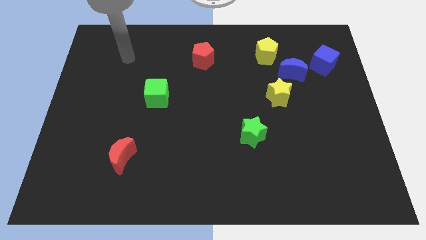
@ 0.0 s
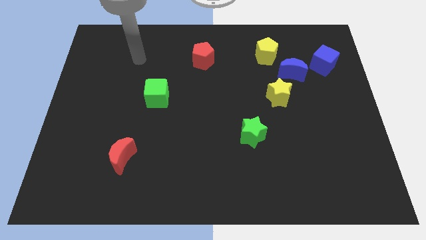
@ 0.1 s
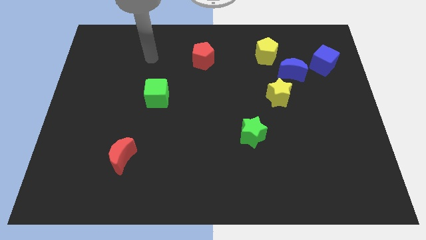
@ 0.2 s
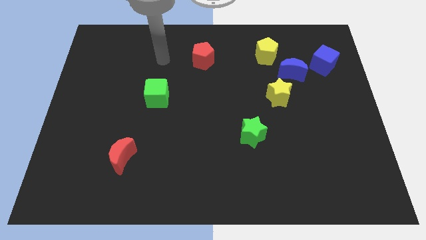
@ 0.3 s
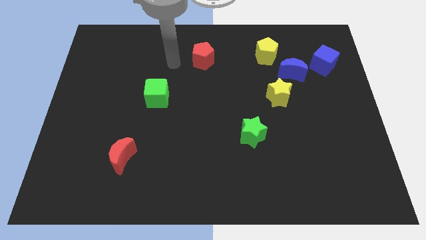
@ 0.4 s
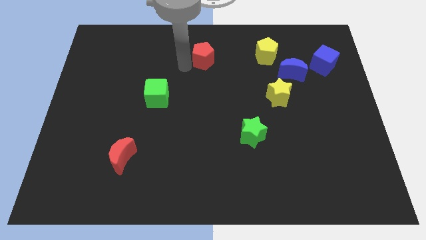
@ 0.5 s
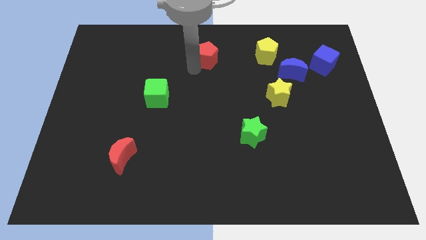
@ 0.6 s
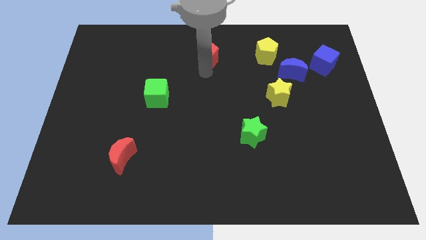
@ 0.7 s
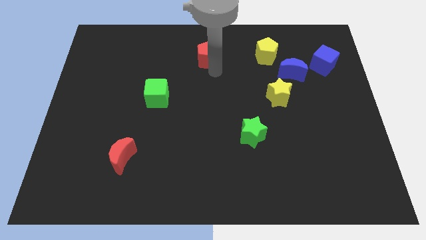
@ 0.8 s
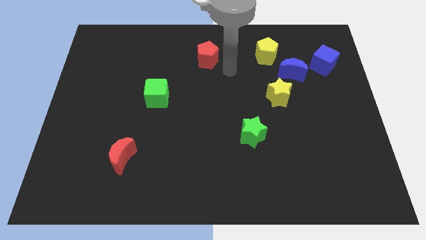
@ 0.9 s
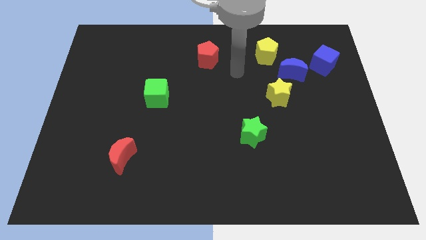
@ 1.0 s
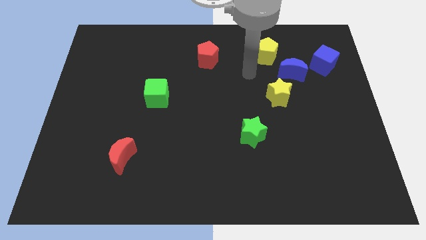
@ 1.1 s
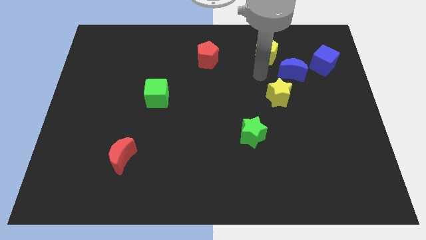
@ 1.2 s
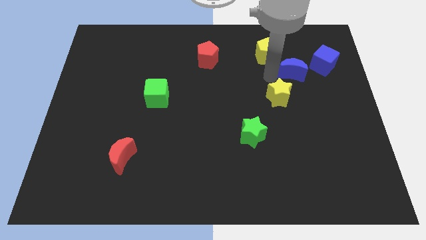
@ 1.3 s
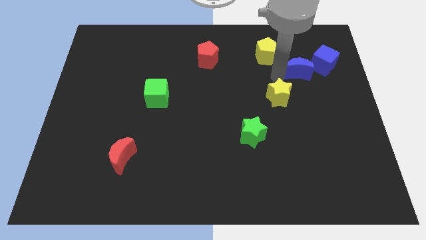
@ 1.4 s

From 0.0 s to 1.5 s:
move the yellow star away from the blue moon

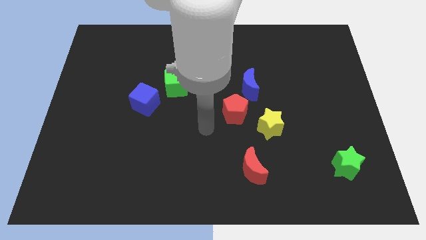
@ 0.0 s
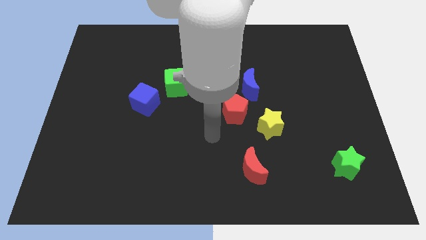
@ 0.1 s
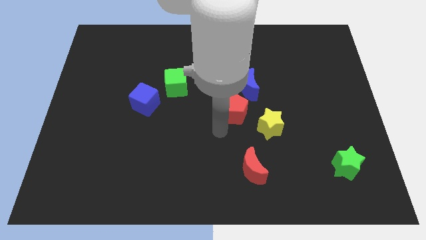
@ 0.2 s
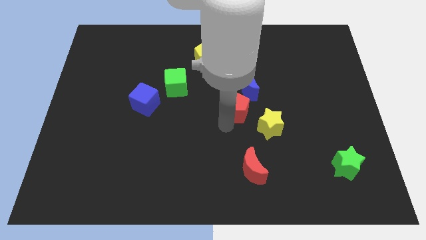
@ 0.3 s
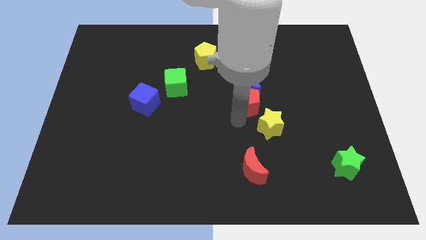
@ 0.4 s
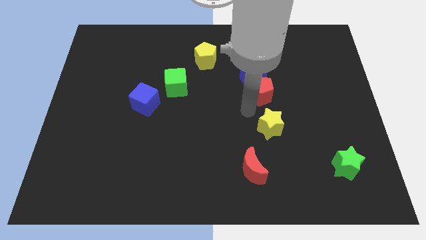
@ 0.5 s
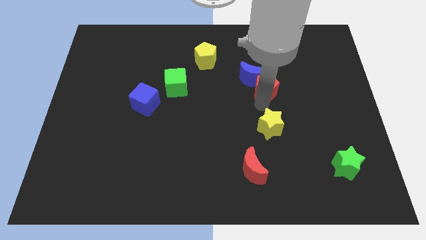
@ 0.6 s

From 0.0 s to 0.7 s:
pull the yellow star apart from the red pentagon

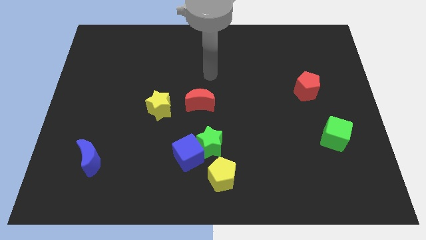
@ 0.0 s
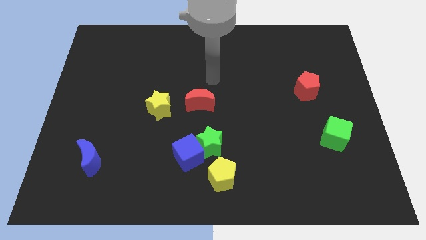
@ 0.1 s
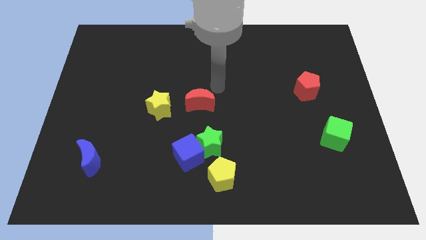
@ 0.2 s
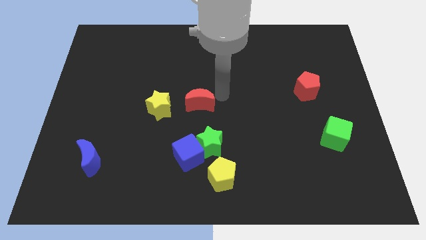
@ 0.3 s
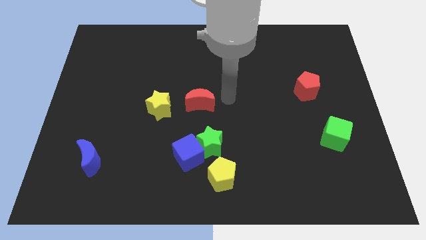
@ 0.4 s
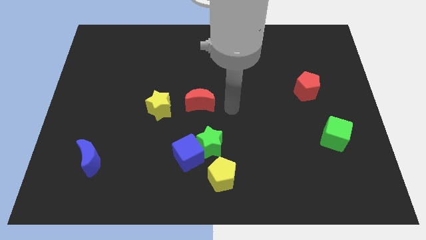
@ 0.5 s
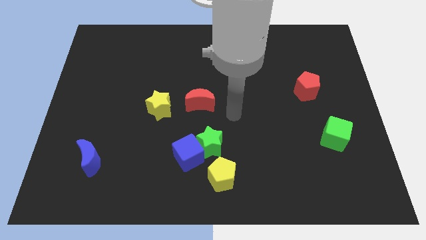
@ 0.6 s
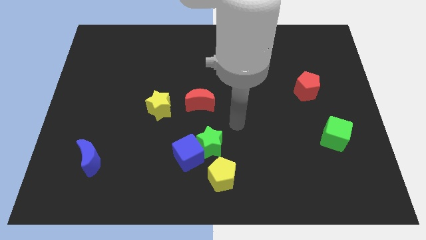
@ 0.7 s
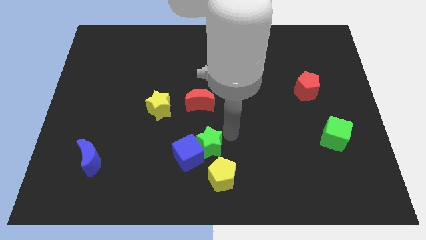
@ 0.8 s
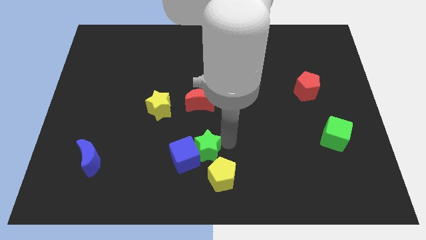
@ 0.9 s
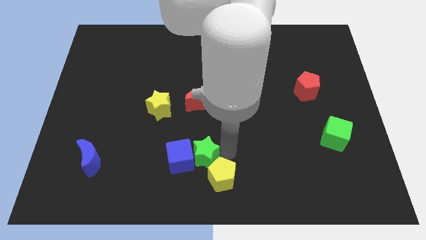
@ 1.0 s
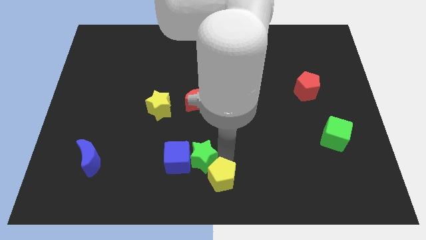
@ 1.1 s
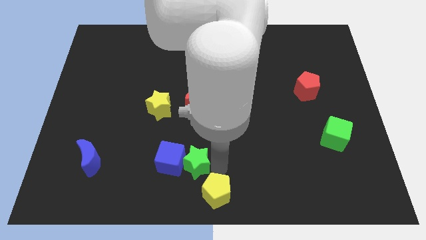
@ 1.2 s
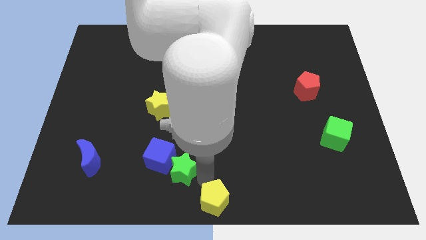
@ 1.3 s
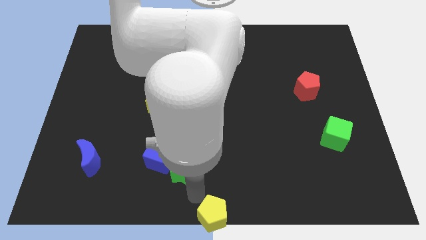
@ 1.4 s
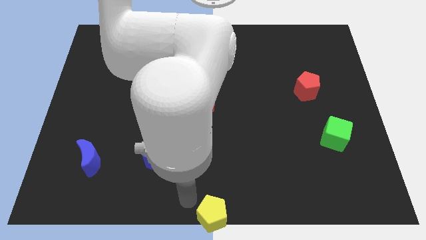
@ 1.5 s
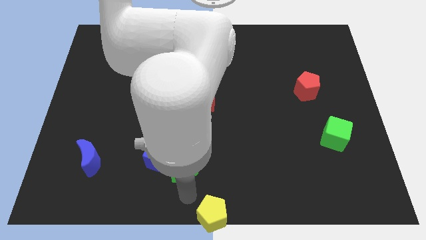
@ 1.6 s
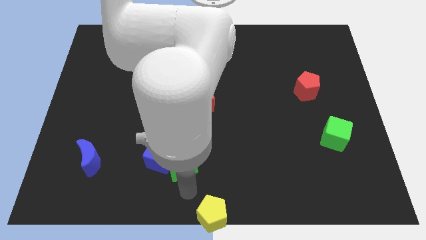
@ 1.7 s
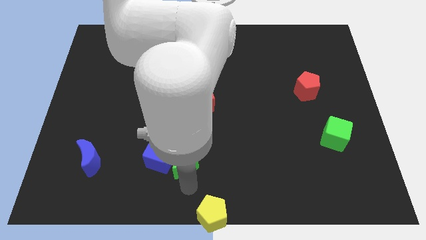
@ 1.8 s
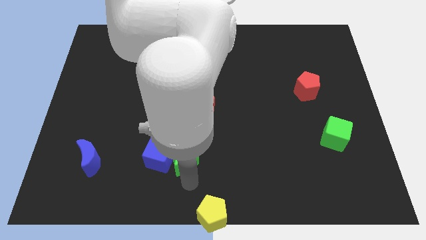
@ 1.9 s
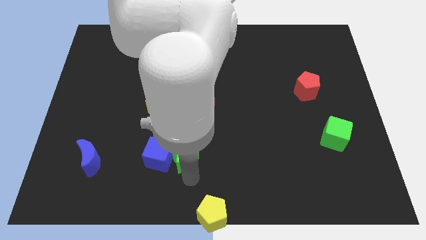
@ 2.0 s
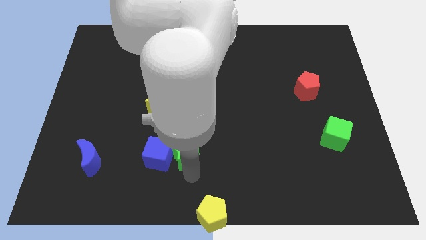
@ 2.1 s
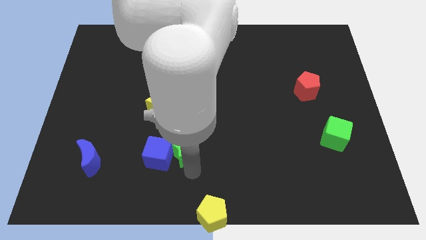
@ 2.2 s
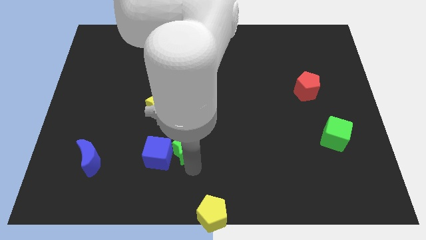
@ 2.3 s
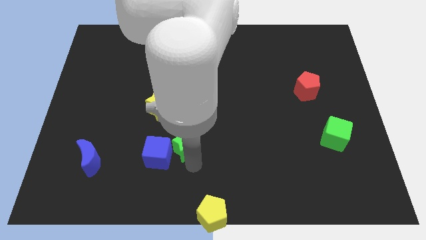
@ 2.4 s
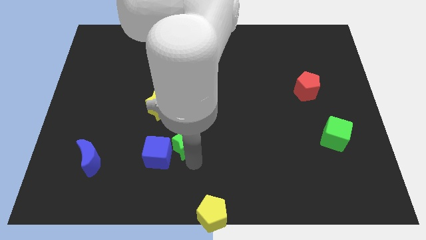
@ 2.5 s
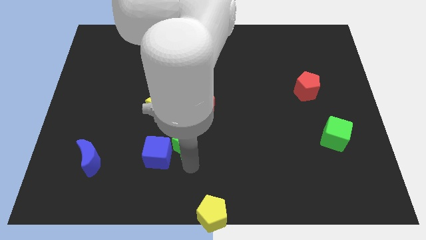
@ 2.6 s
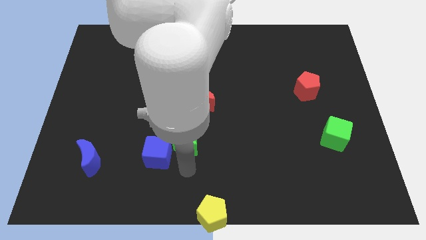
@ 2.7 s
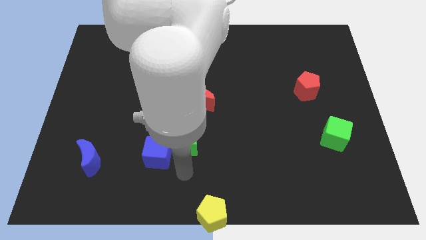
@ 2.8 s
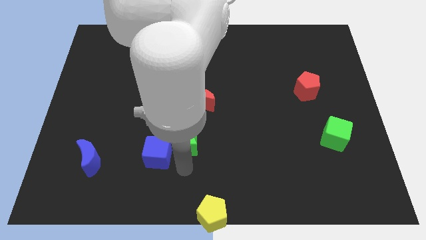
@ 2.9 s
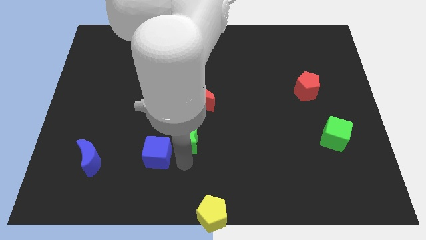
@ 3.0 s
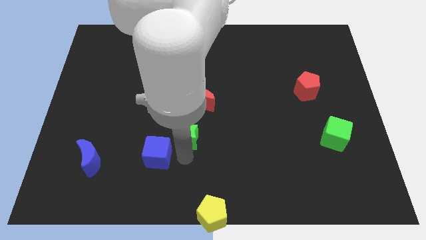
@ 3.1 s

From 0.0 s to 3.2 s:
pull the green star apart from the blue cube and yellow pentagon

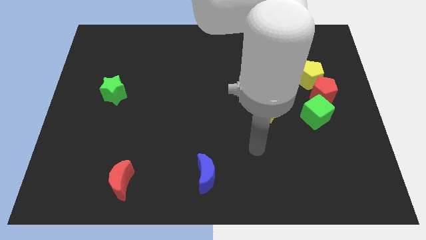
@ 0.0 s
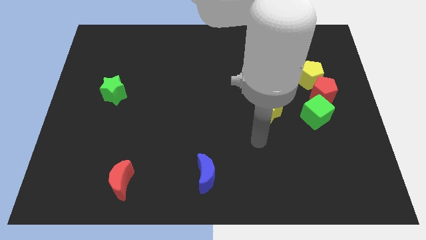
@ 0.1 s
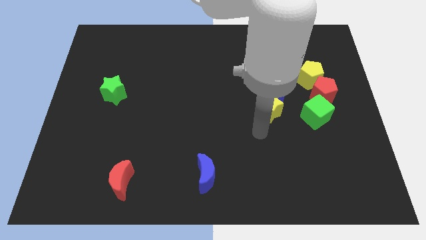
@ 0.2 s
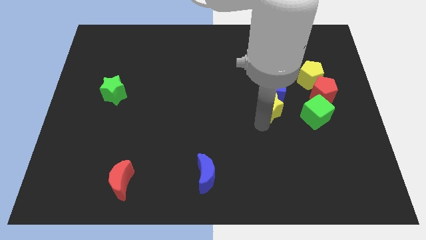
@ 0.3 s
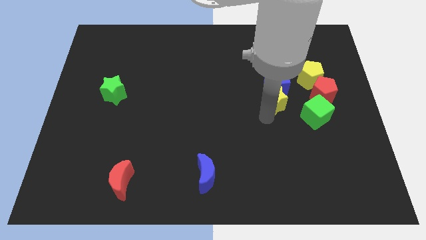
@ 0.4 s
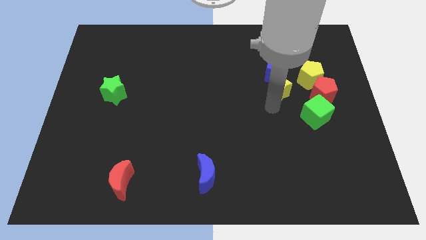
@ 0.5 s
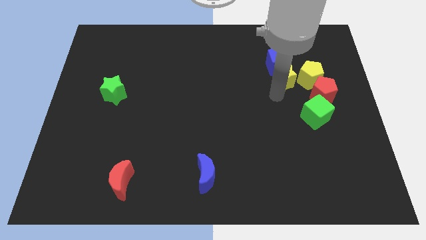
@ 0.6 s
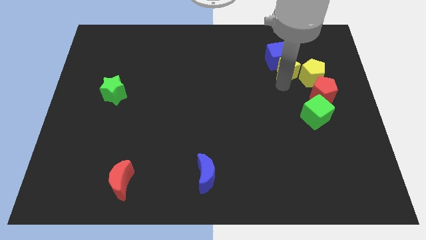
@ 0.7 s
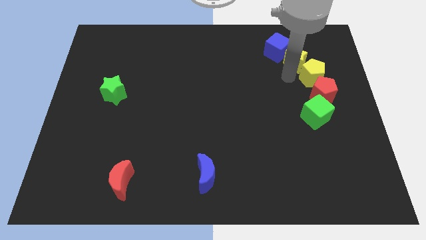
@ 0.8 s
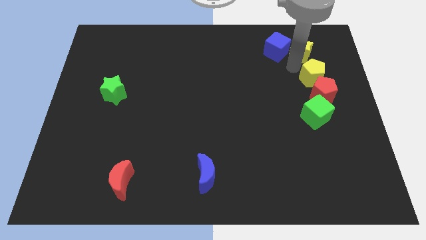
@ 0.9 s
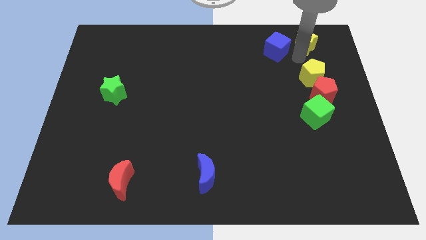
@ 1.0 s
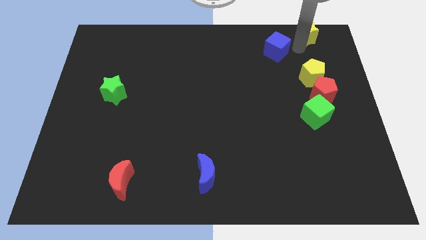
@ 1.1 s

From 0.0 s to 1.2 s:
move the blue cube away from the yellow star

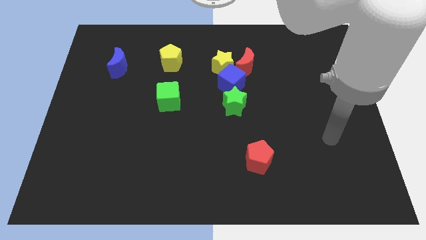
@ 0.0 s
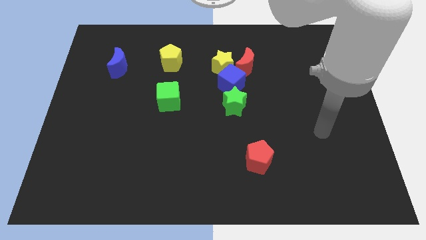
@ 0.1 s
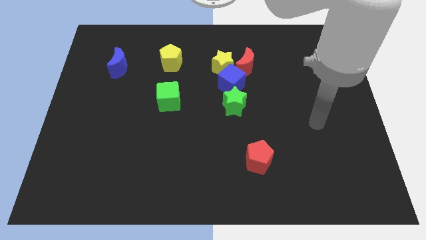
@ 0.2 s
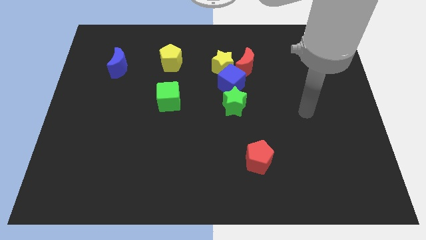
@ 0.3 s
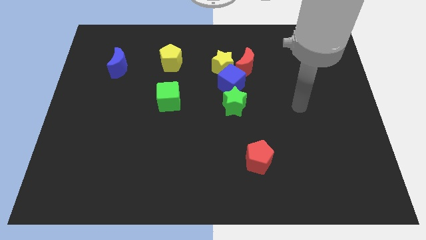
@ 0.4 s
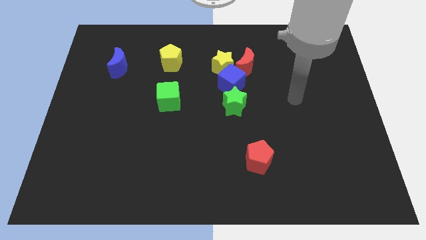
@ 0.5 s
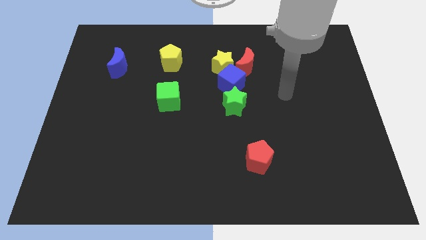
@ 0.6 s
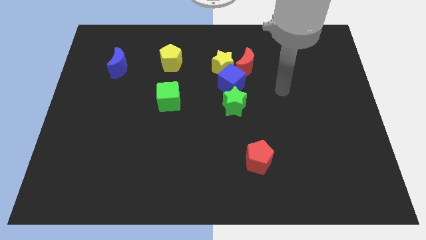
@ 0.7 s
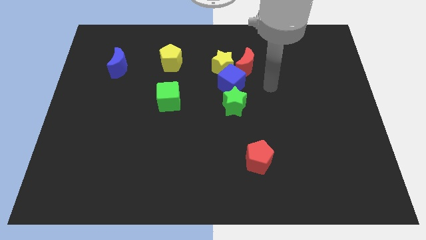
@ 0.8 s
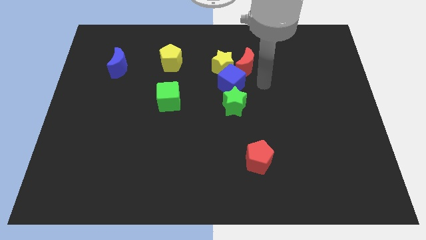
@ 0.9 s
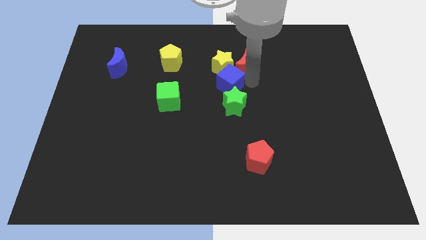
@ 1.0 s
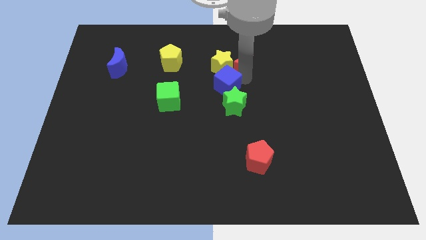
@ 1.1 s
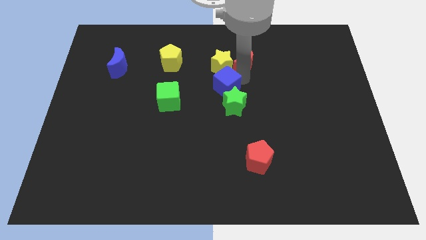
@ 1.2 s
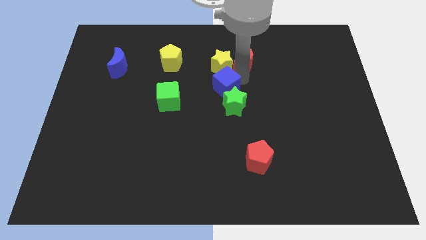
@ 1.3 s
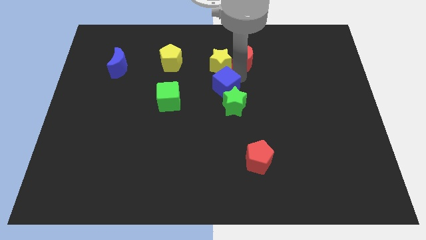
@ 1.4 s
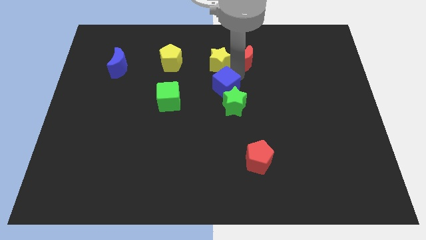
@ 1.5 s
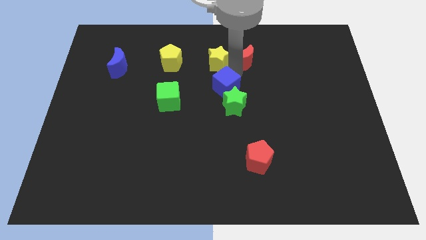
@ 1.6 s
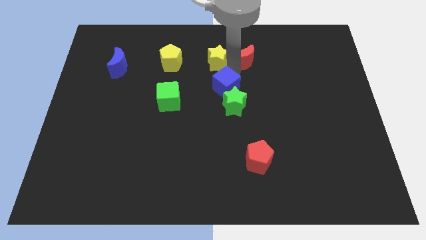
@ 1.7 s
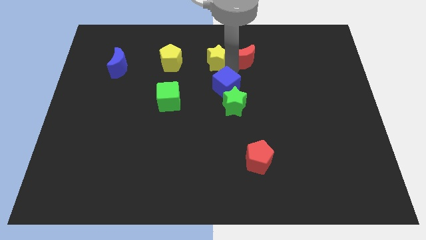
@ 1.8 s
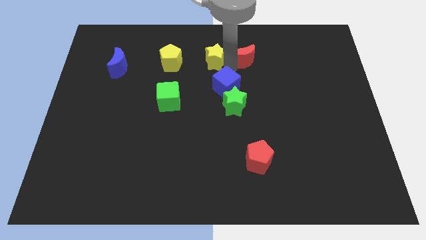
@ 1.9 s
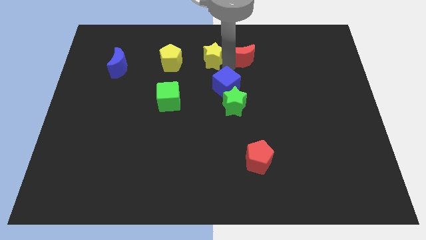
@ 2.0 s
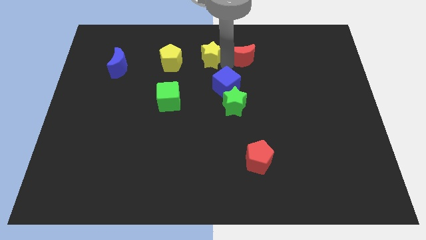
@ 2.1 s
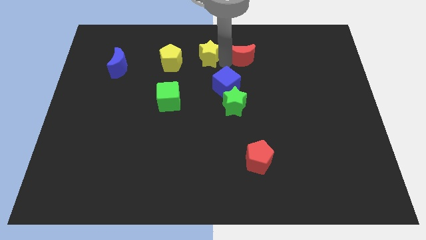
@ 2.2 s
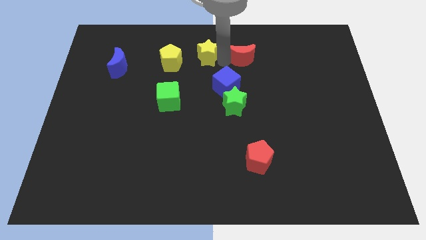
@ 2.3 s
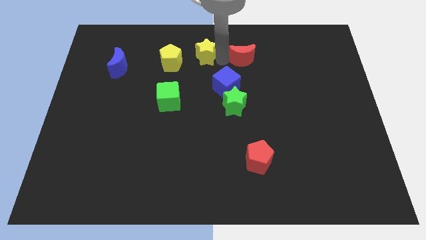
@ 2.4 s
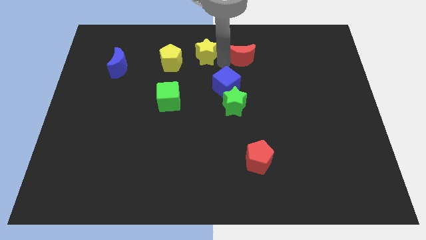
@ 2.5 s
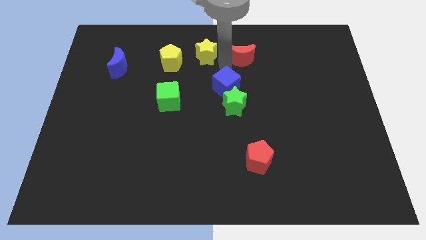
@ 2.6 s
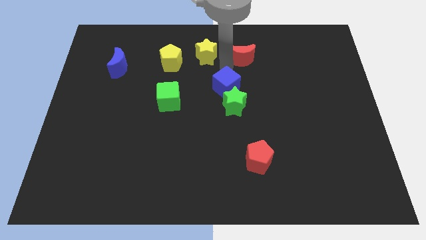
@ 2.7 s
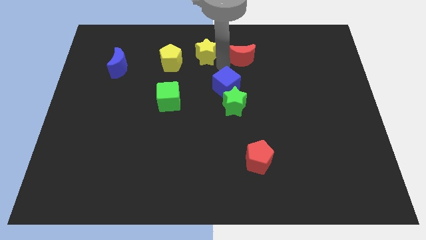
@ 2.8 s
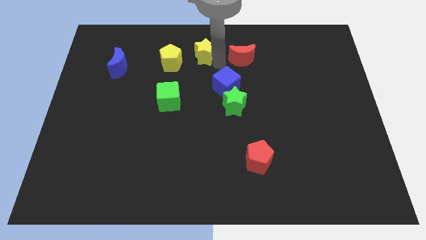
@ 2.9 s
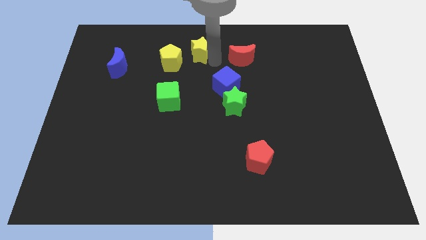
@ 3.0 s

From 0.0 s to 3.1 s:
pull the yellow star apart from the blue cube and red moon
